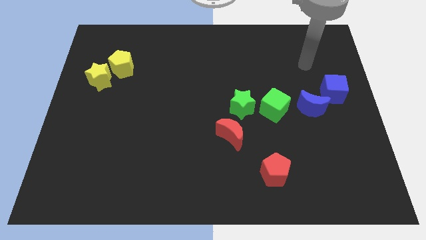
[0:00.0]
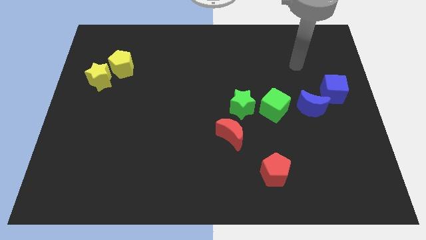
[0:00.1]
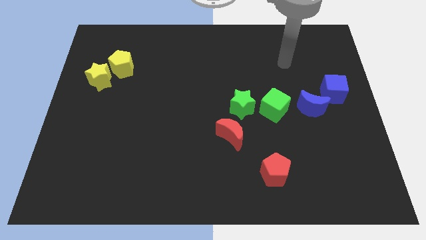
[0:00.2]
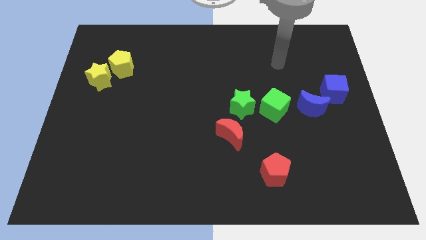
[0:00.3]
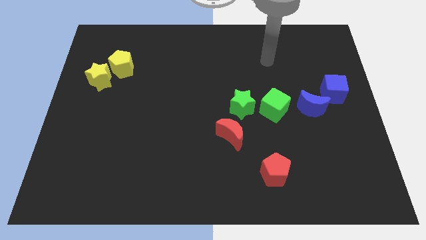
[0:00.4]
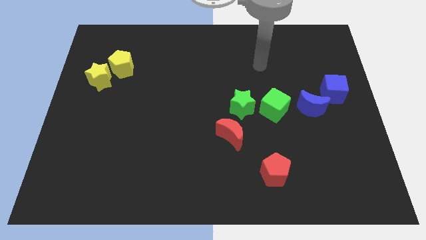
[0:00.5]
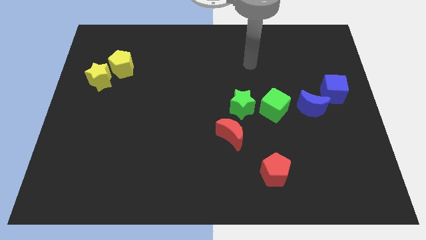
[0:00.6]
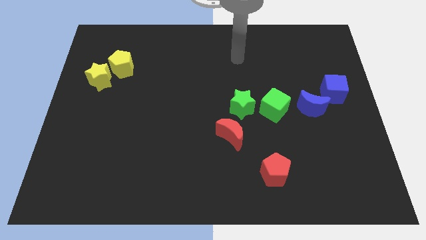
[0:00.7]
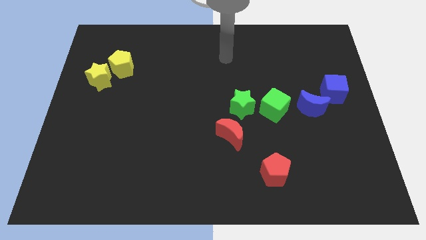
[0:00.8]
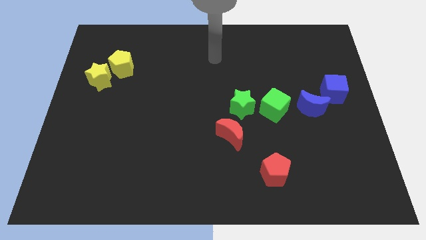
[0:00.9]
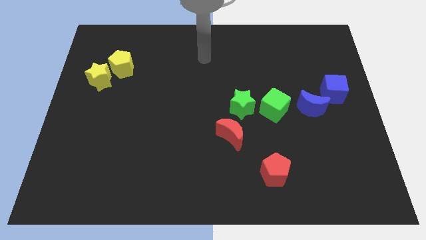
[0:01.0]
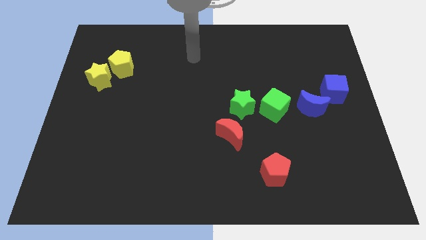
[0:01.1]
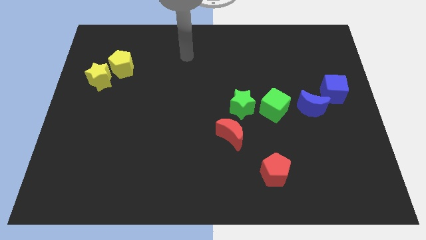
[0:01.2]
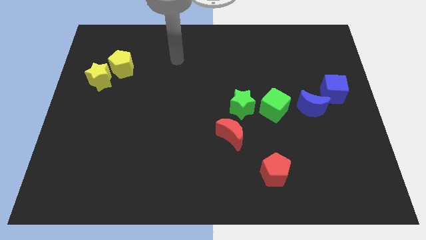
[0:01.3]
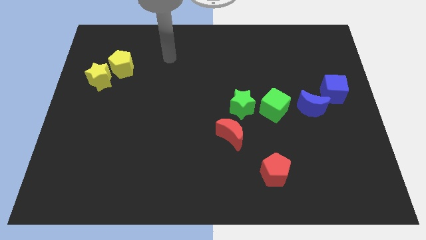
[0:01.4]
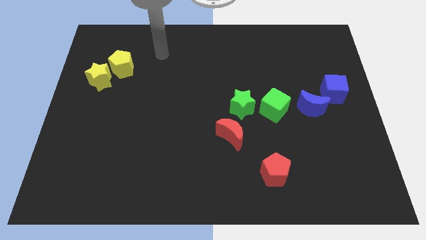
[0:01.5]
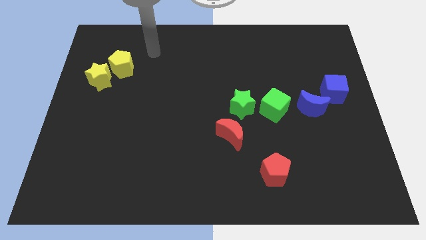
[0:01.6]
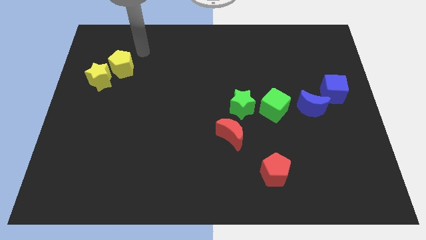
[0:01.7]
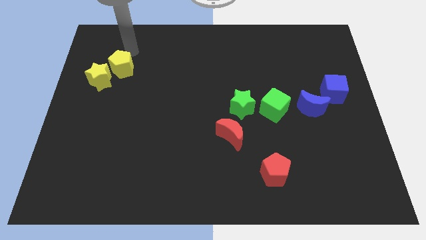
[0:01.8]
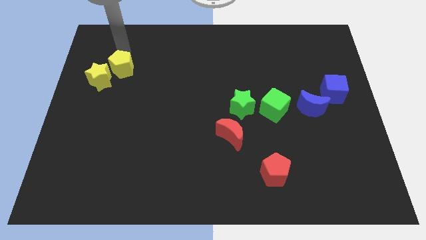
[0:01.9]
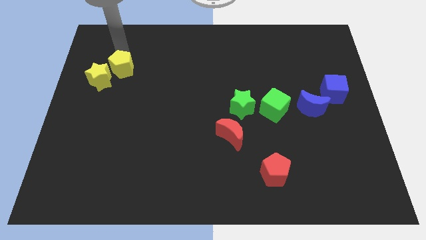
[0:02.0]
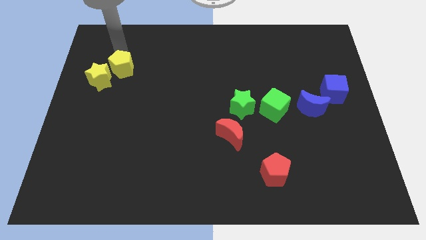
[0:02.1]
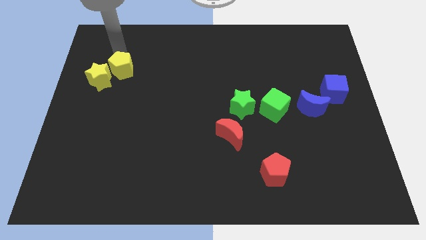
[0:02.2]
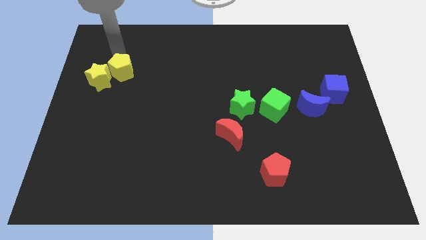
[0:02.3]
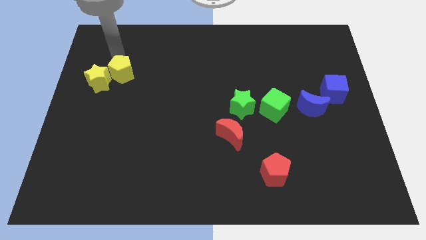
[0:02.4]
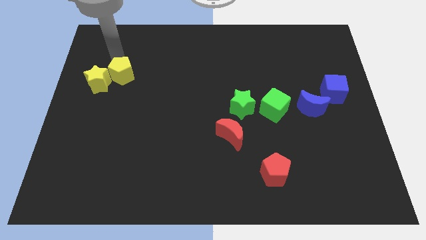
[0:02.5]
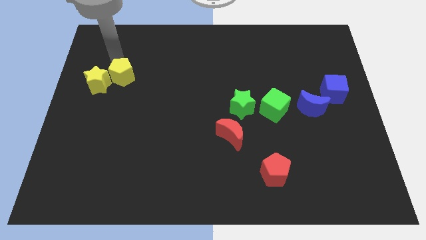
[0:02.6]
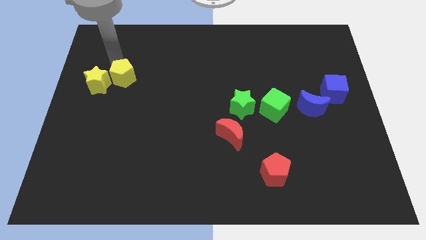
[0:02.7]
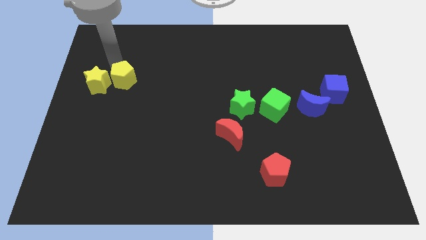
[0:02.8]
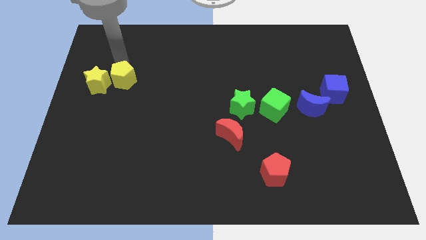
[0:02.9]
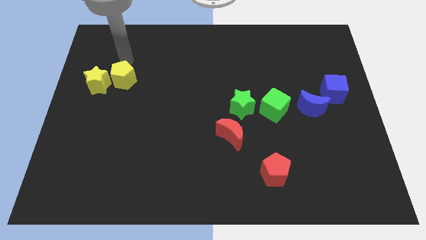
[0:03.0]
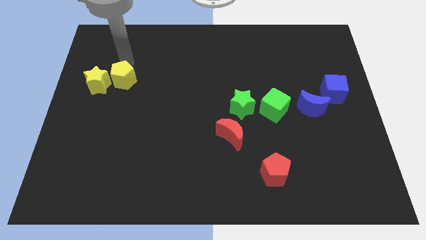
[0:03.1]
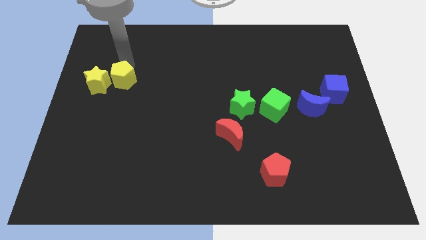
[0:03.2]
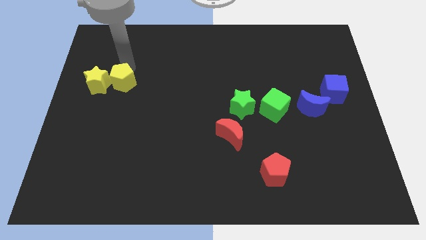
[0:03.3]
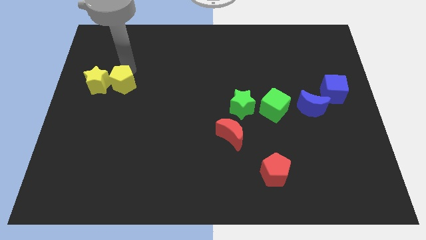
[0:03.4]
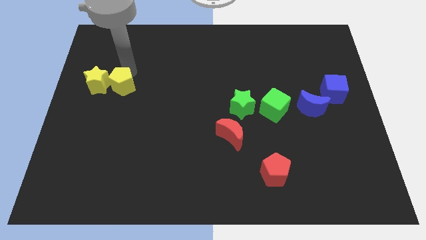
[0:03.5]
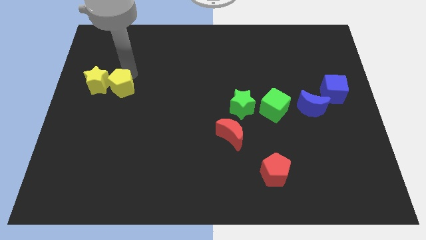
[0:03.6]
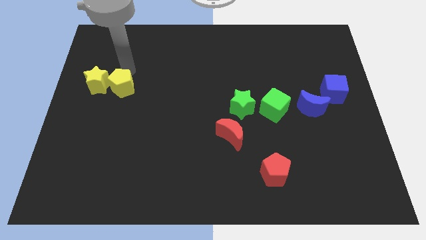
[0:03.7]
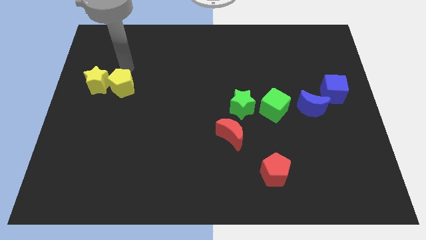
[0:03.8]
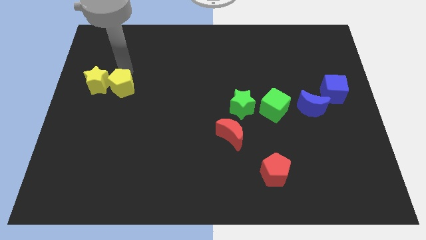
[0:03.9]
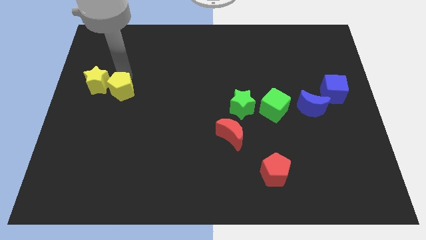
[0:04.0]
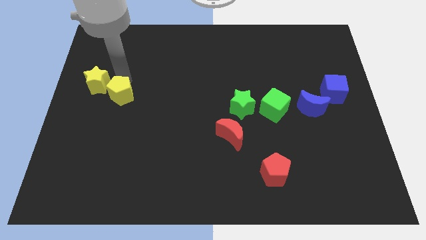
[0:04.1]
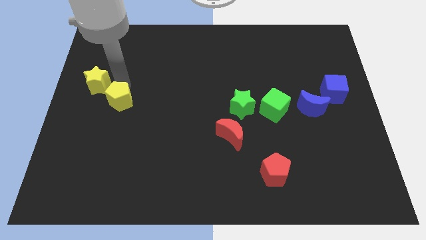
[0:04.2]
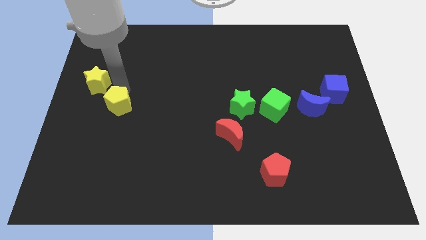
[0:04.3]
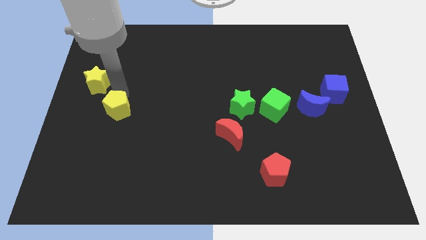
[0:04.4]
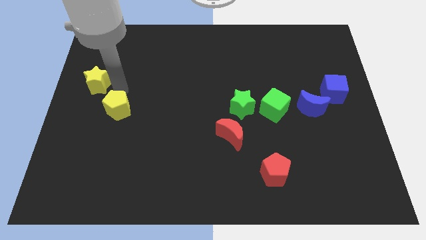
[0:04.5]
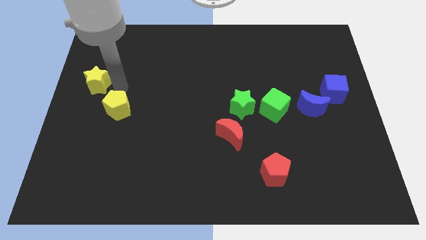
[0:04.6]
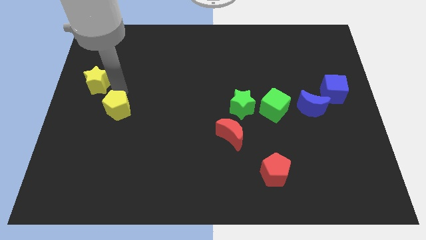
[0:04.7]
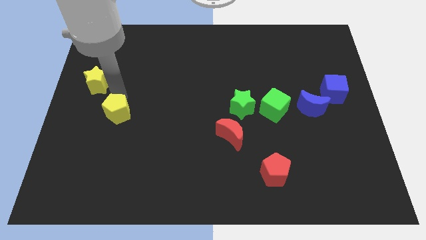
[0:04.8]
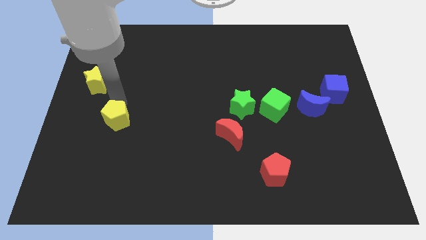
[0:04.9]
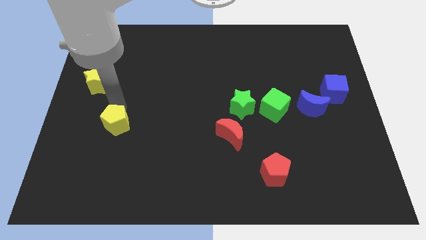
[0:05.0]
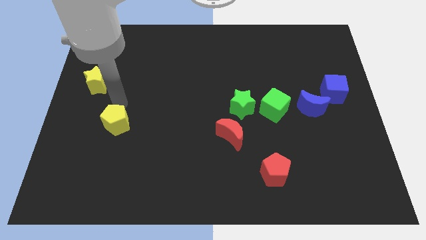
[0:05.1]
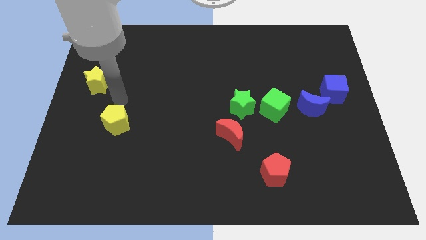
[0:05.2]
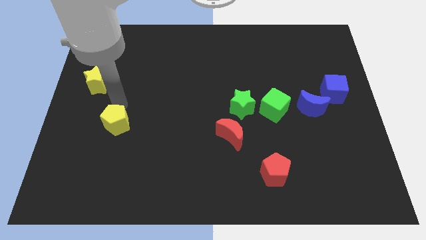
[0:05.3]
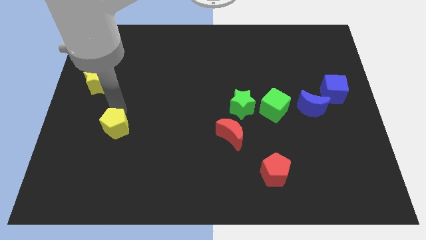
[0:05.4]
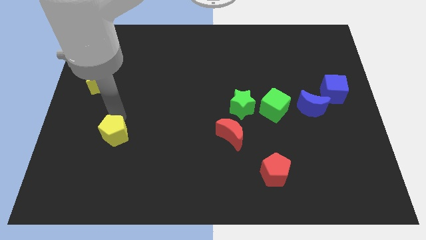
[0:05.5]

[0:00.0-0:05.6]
slide the yellow pentagon downwards

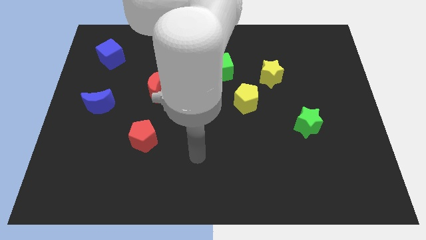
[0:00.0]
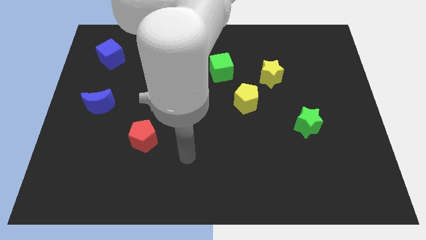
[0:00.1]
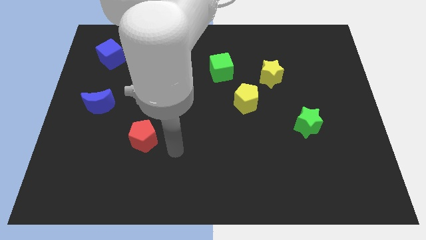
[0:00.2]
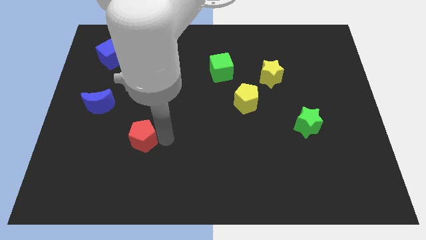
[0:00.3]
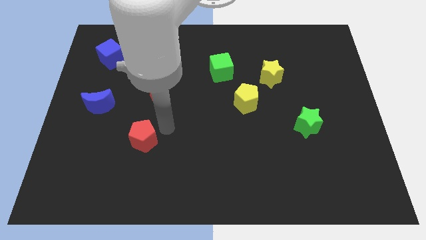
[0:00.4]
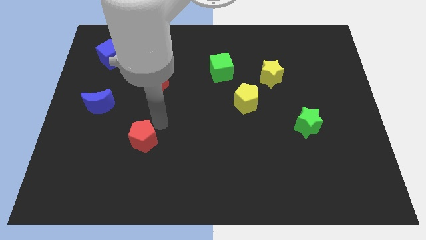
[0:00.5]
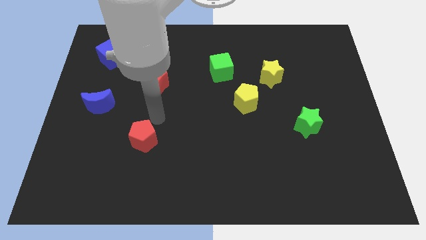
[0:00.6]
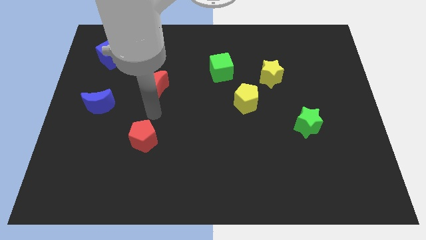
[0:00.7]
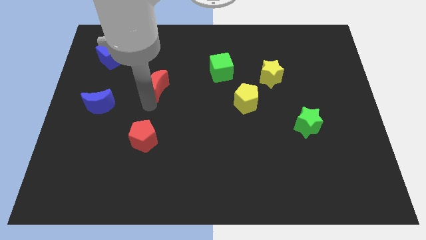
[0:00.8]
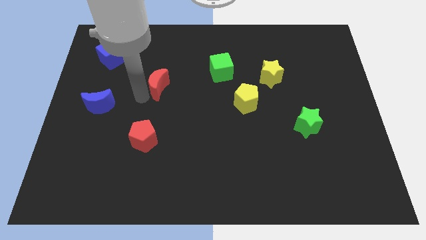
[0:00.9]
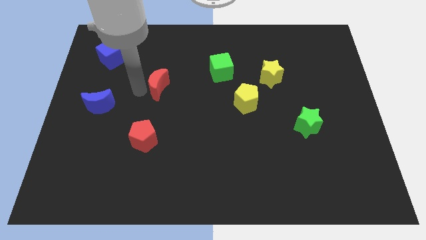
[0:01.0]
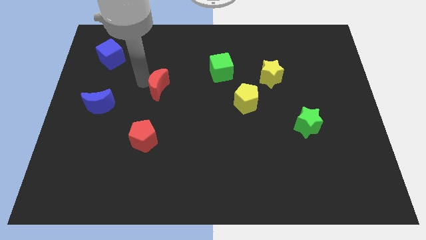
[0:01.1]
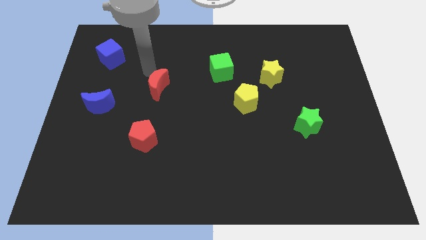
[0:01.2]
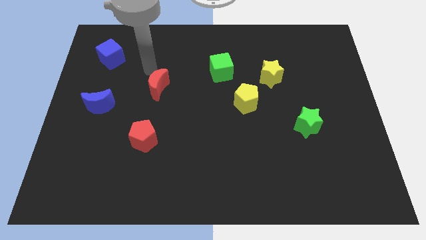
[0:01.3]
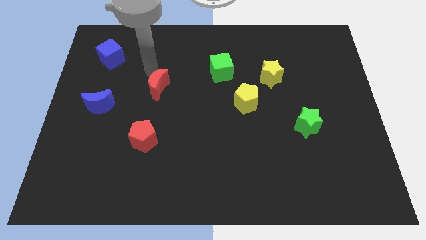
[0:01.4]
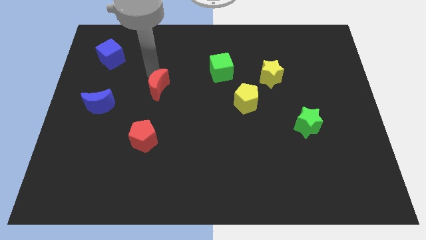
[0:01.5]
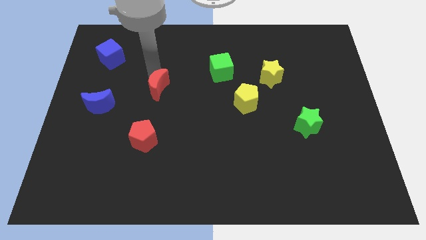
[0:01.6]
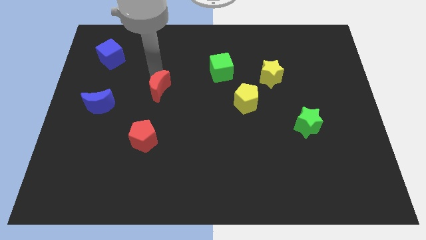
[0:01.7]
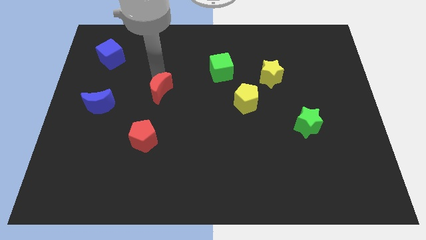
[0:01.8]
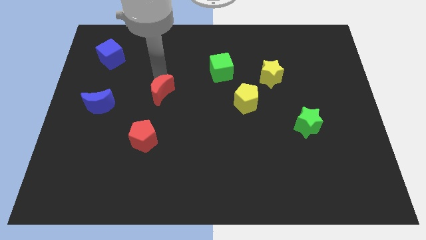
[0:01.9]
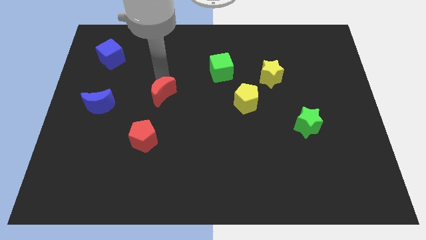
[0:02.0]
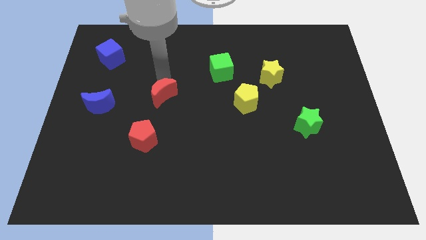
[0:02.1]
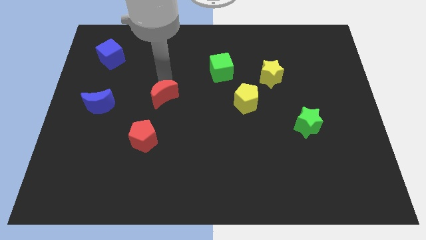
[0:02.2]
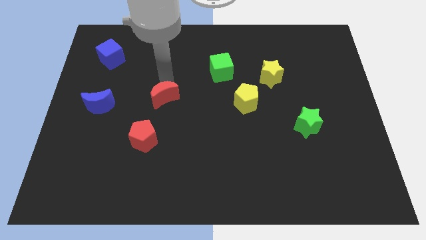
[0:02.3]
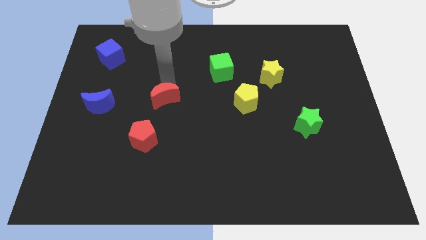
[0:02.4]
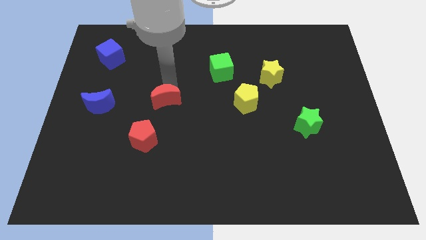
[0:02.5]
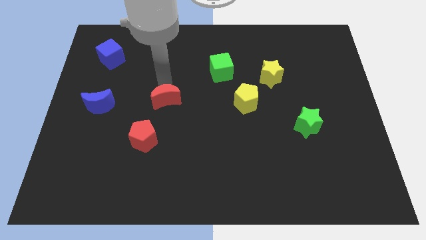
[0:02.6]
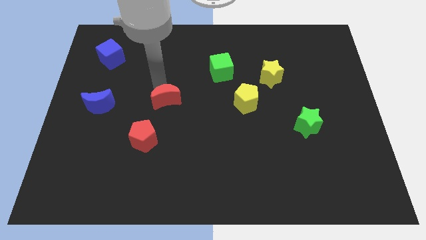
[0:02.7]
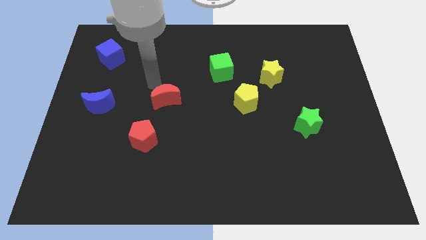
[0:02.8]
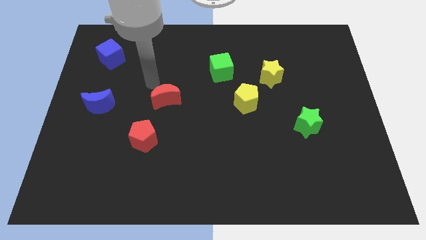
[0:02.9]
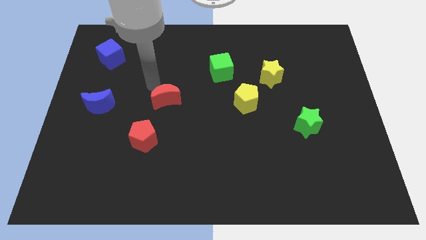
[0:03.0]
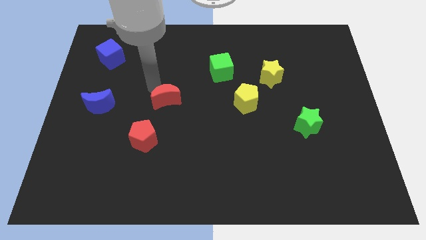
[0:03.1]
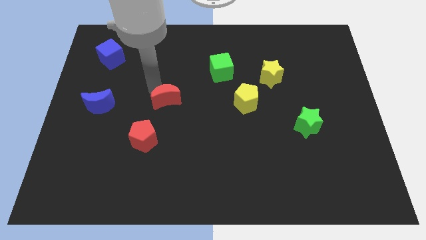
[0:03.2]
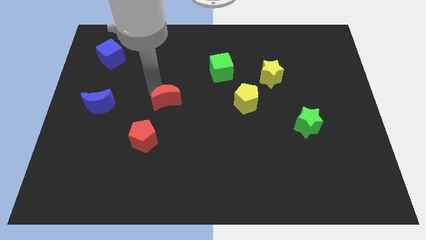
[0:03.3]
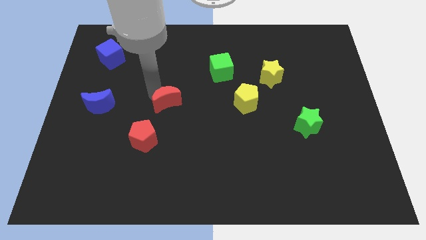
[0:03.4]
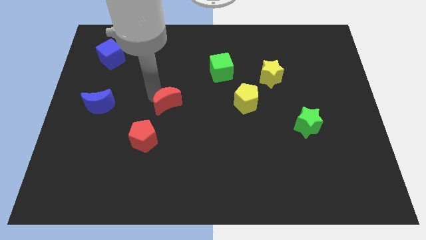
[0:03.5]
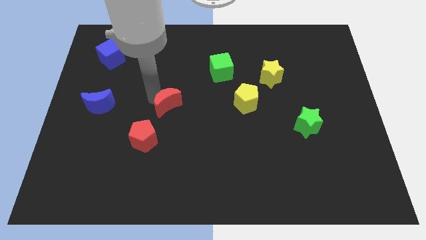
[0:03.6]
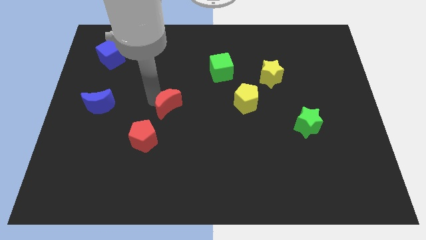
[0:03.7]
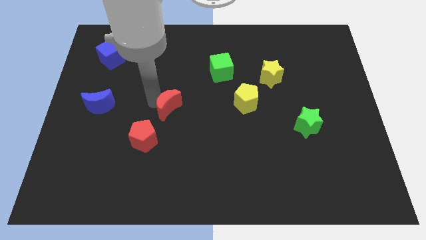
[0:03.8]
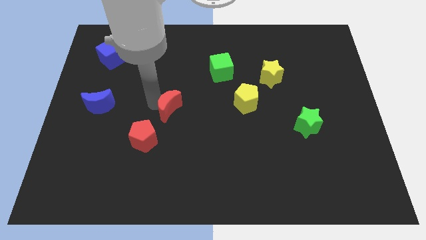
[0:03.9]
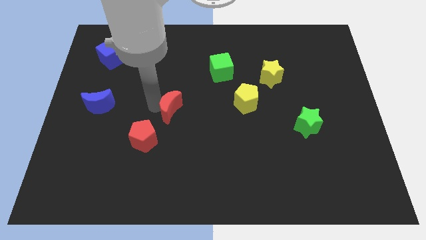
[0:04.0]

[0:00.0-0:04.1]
slide the red moon slightly down and right diagonally
